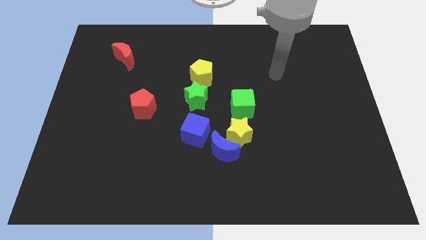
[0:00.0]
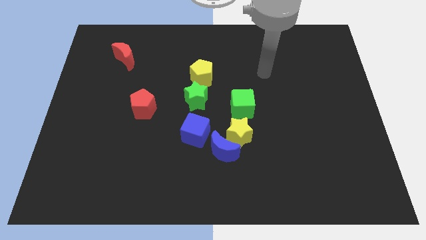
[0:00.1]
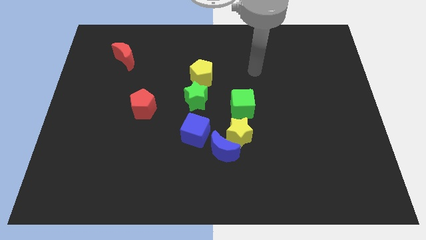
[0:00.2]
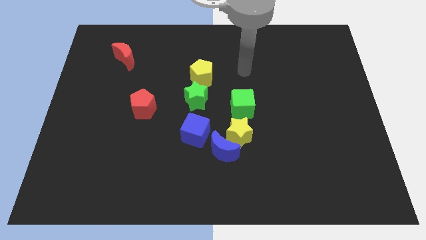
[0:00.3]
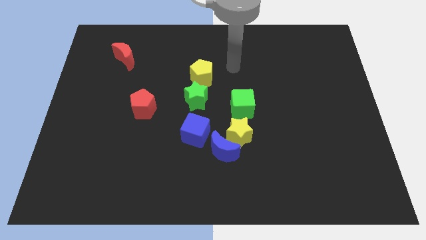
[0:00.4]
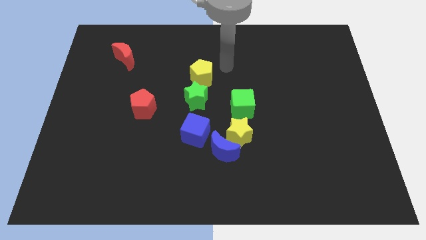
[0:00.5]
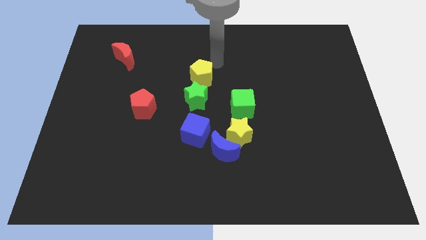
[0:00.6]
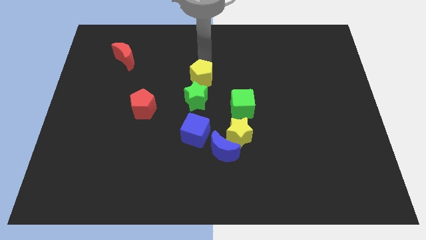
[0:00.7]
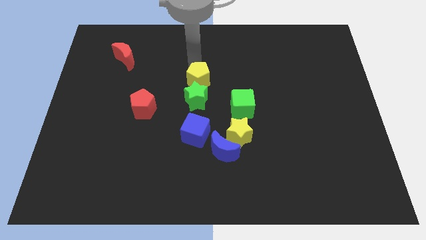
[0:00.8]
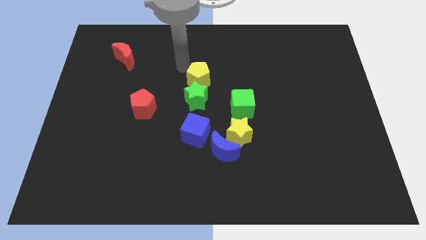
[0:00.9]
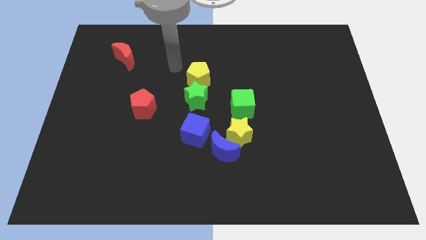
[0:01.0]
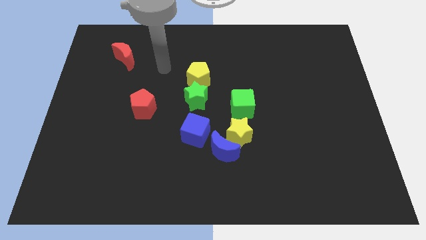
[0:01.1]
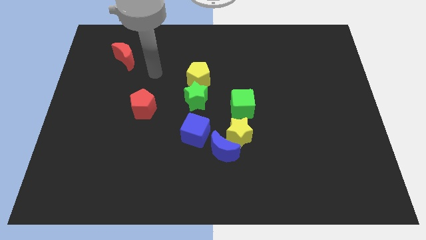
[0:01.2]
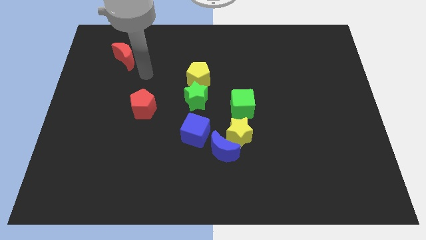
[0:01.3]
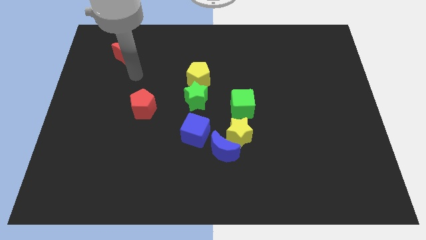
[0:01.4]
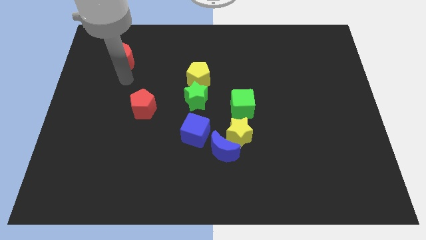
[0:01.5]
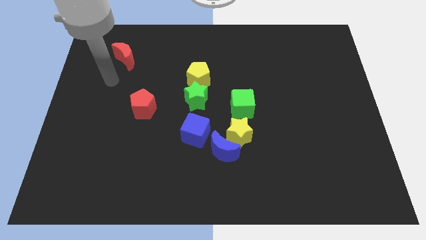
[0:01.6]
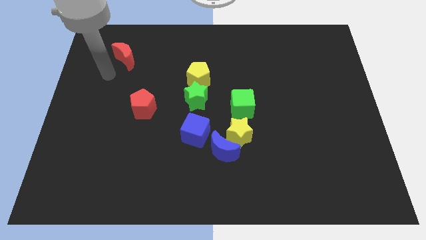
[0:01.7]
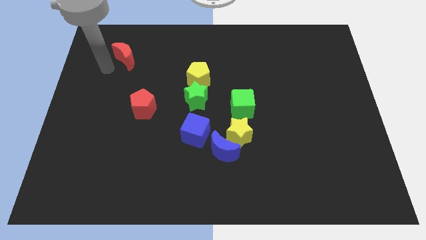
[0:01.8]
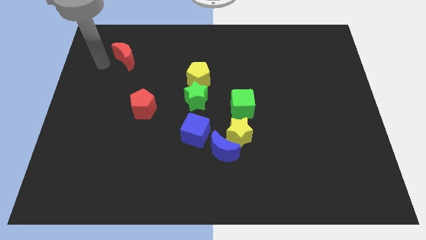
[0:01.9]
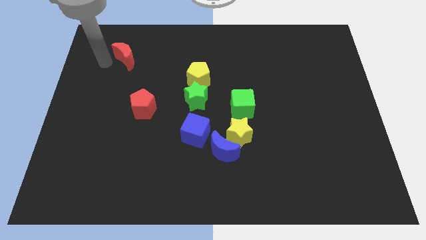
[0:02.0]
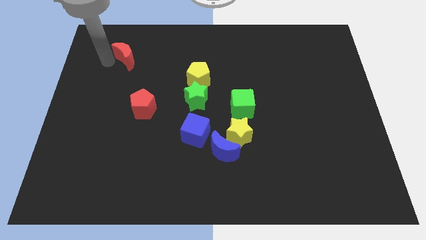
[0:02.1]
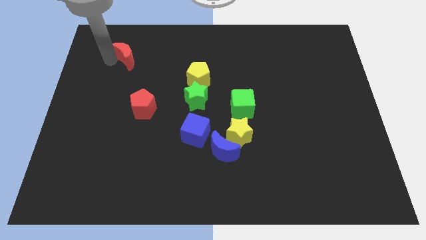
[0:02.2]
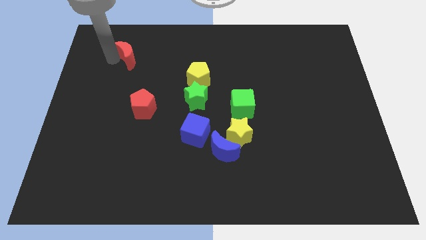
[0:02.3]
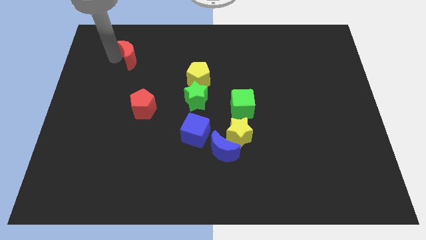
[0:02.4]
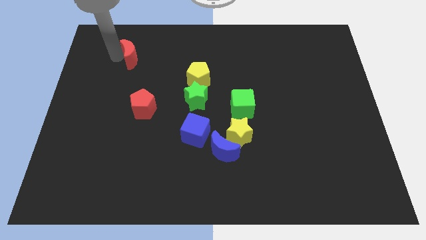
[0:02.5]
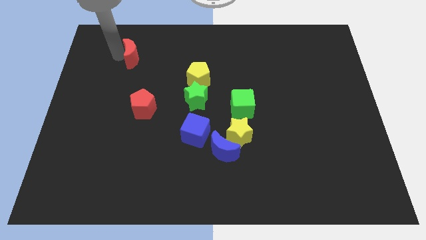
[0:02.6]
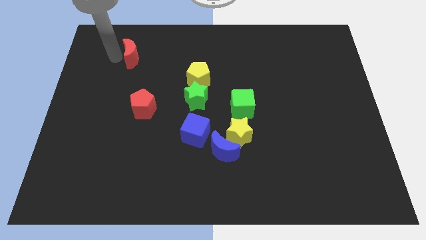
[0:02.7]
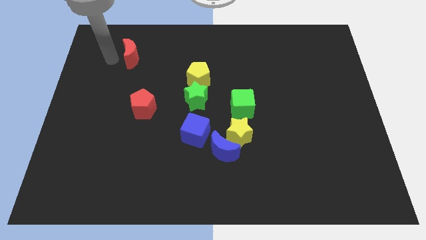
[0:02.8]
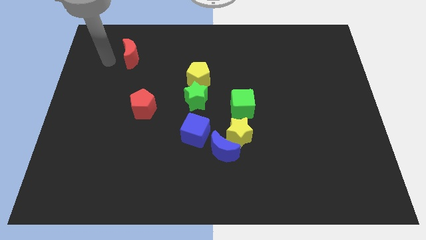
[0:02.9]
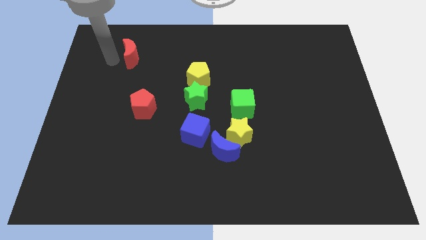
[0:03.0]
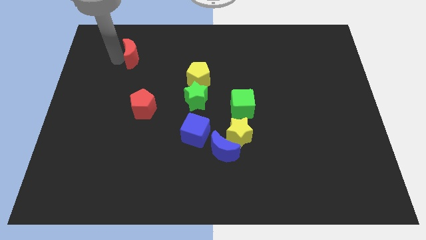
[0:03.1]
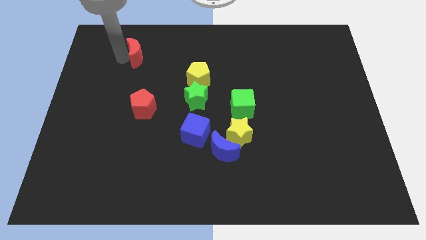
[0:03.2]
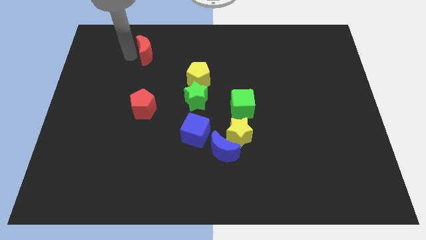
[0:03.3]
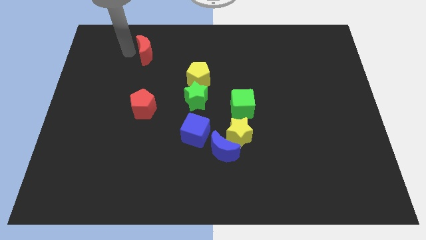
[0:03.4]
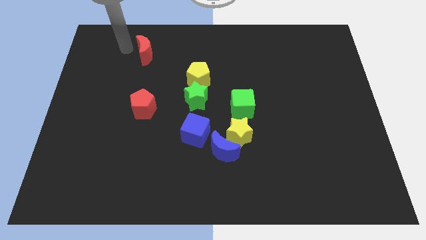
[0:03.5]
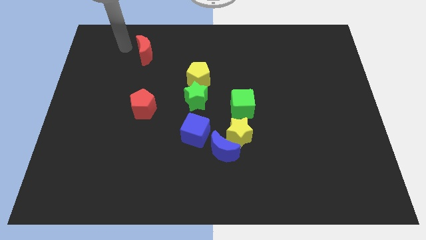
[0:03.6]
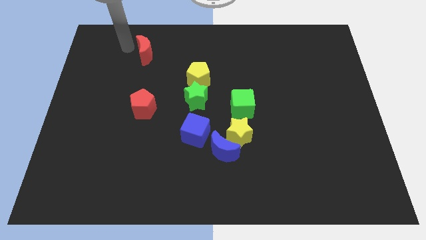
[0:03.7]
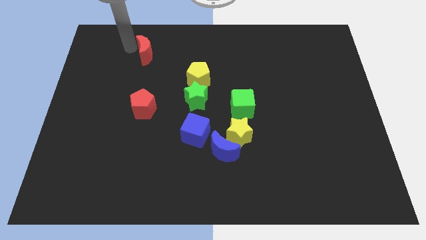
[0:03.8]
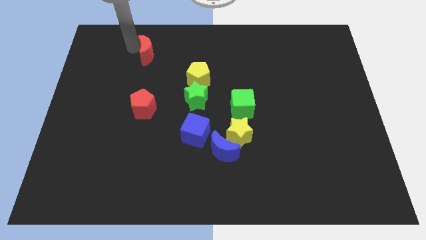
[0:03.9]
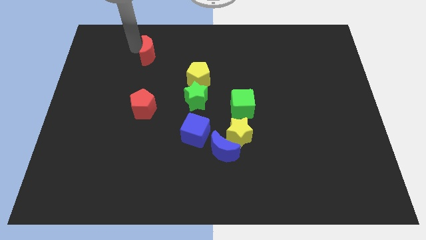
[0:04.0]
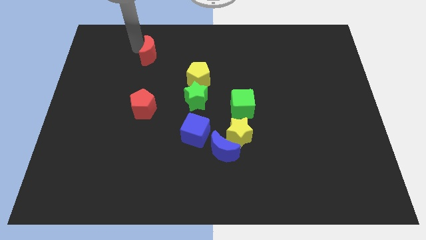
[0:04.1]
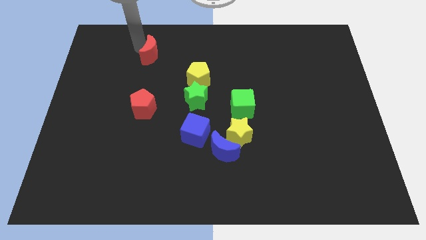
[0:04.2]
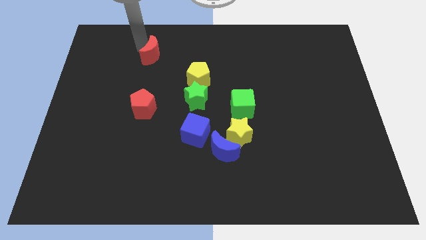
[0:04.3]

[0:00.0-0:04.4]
move the red moon a bit to the right

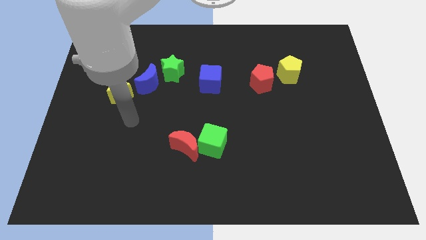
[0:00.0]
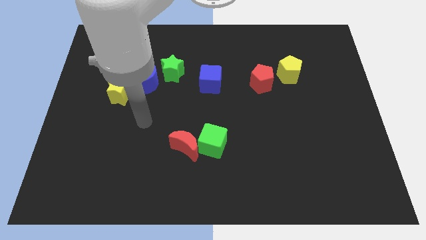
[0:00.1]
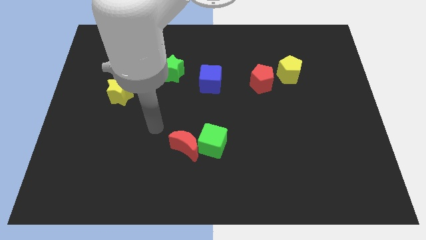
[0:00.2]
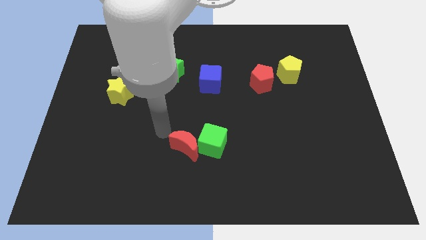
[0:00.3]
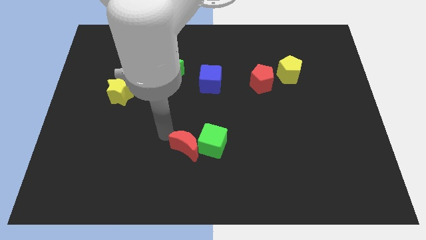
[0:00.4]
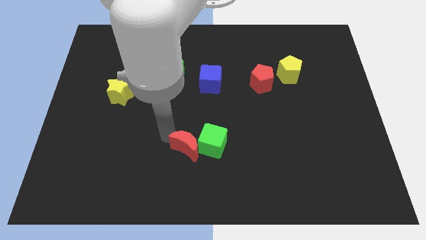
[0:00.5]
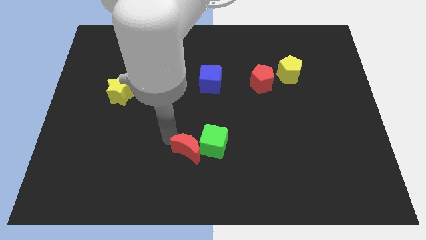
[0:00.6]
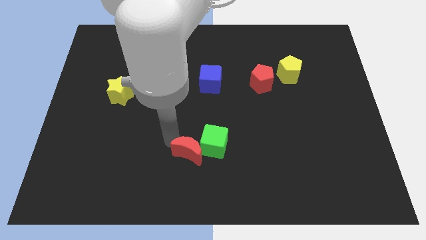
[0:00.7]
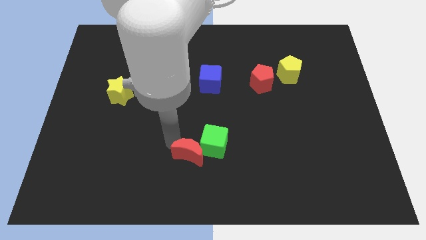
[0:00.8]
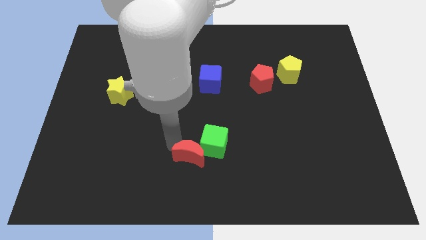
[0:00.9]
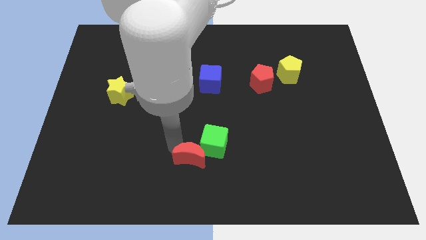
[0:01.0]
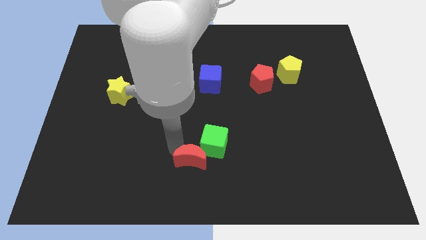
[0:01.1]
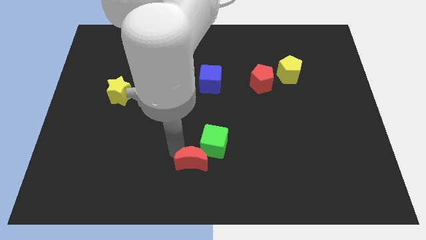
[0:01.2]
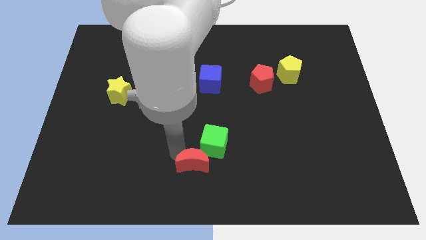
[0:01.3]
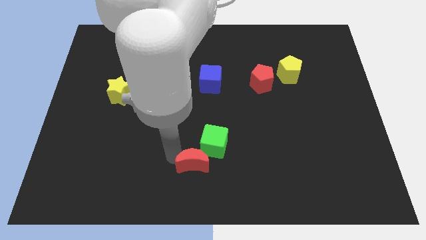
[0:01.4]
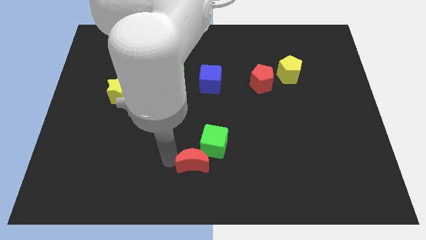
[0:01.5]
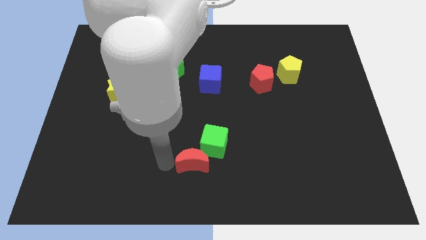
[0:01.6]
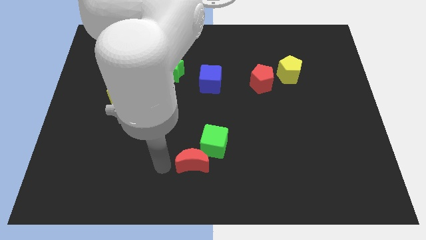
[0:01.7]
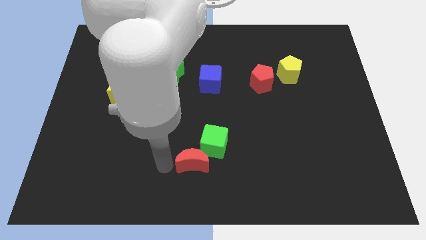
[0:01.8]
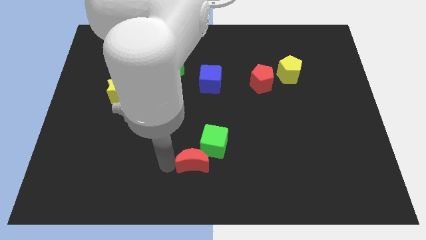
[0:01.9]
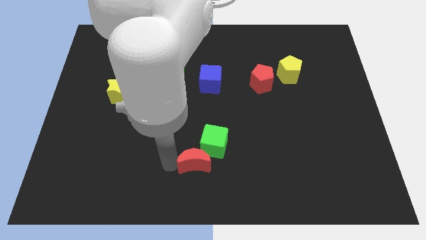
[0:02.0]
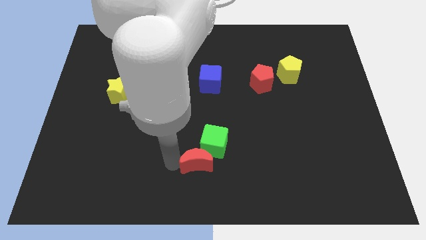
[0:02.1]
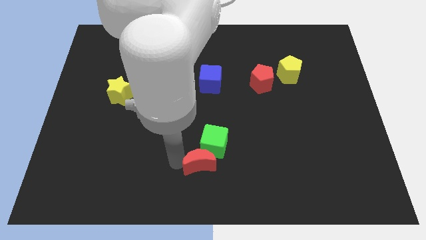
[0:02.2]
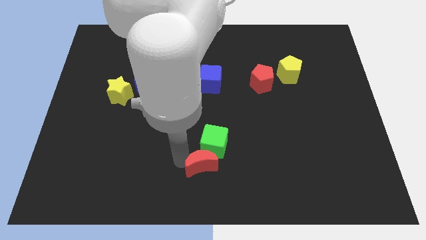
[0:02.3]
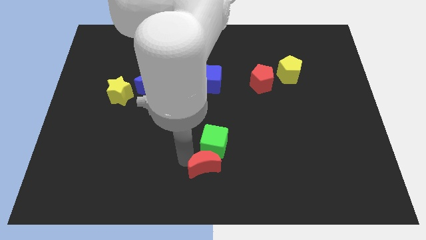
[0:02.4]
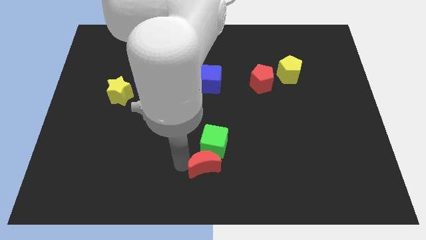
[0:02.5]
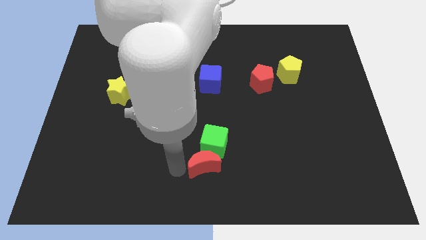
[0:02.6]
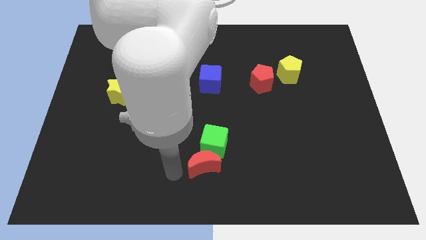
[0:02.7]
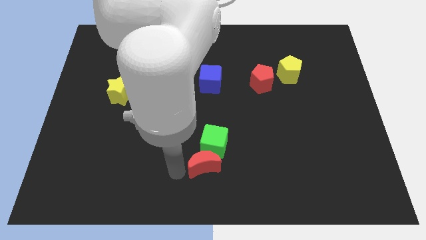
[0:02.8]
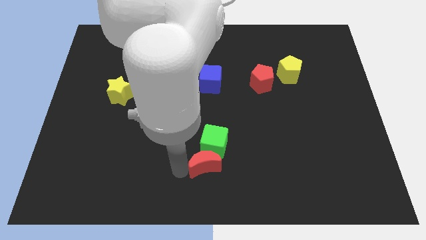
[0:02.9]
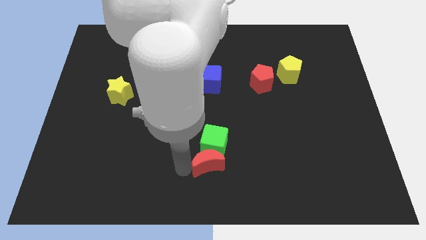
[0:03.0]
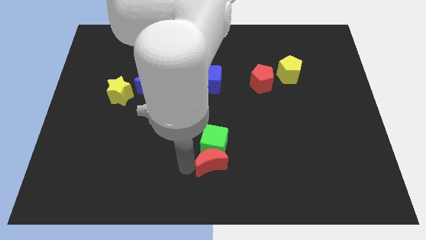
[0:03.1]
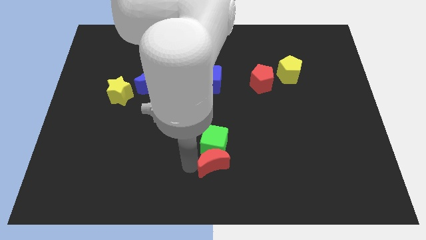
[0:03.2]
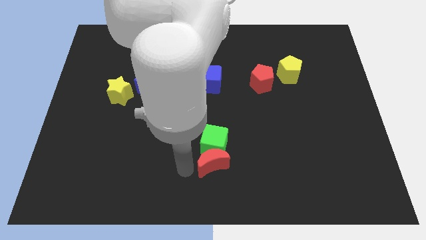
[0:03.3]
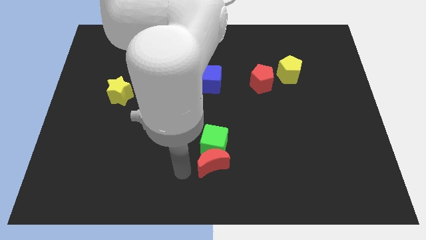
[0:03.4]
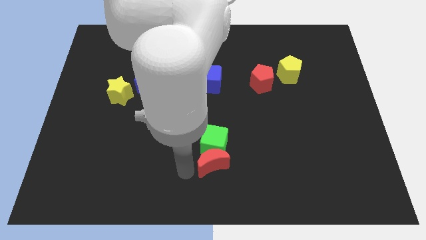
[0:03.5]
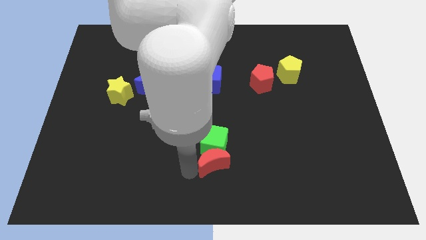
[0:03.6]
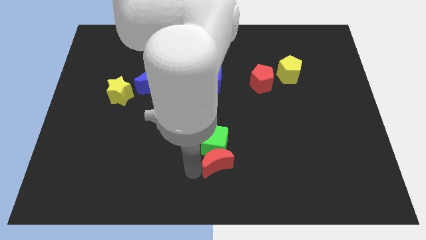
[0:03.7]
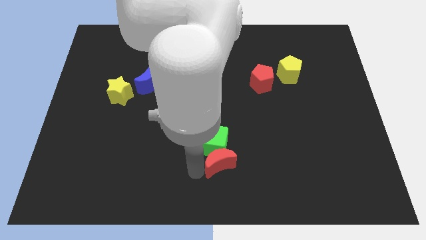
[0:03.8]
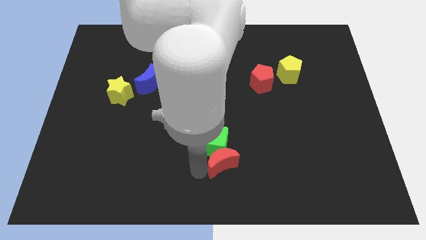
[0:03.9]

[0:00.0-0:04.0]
move the red moon to the right slightly
